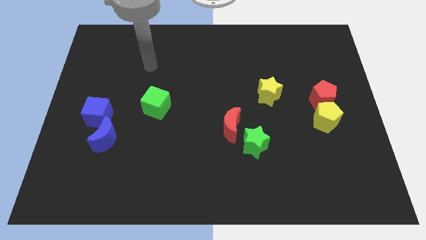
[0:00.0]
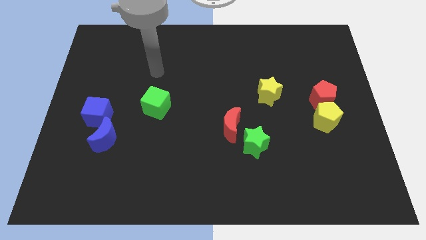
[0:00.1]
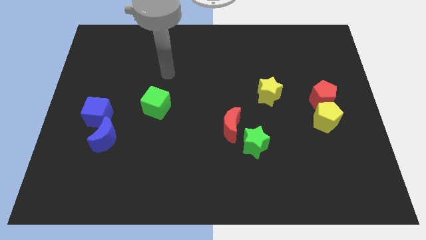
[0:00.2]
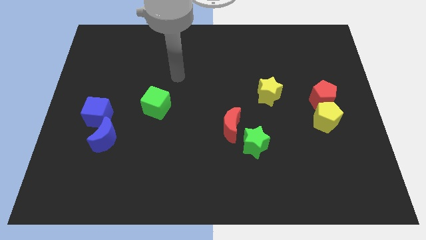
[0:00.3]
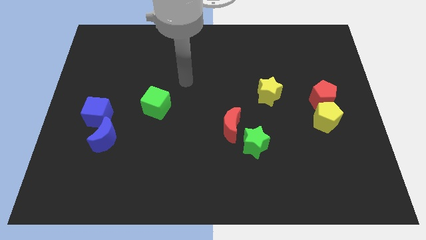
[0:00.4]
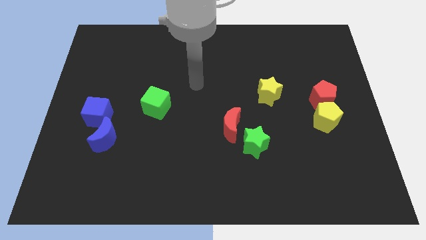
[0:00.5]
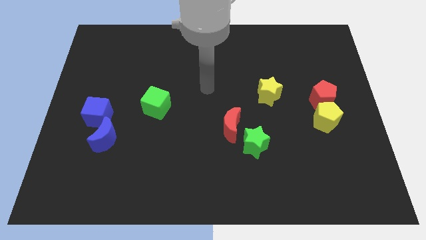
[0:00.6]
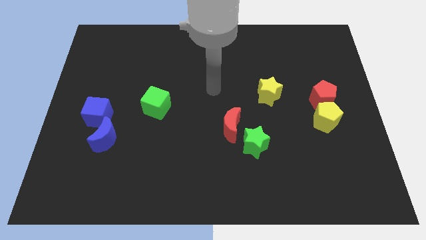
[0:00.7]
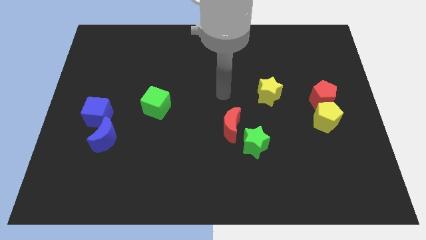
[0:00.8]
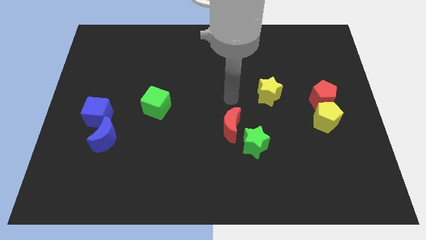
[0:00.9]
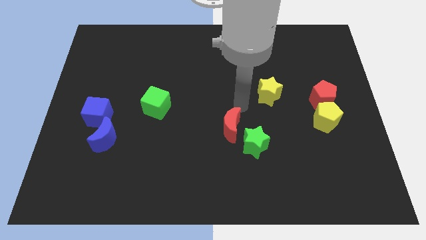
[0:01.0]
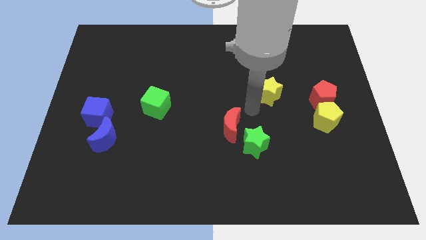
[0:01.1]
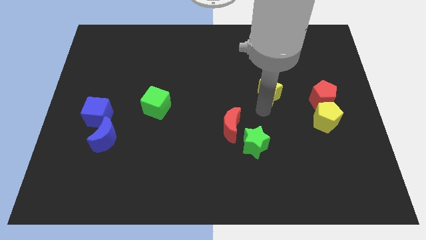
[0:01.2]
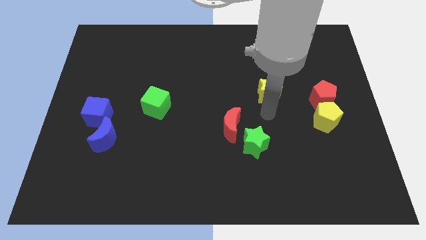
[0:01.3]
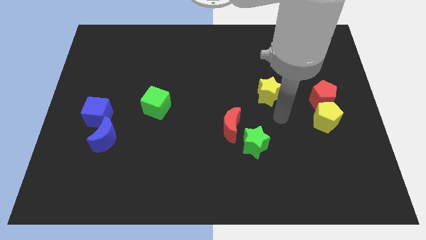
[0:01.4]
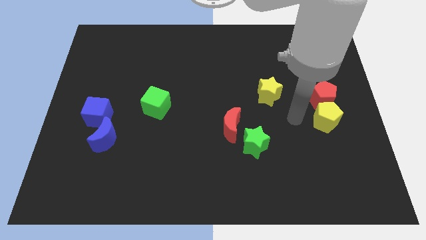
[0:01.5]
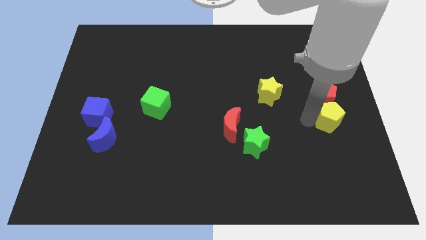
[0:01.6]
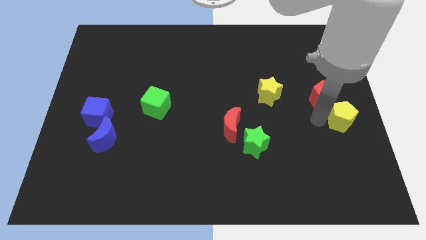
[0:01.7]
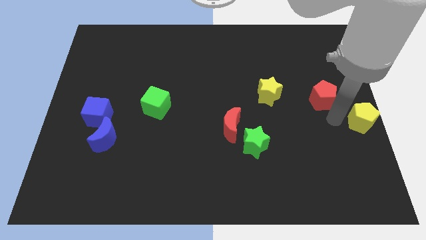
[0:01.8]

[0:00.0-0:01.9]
separate the red pentagon from the yellow pentagon

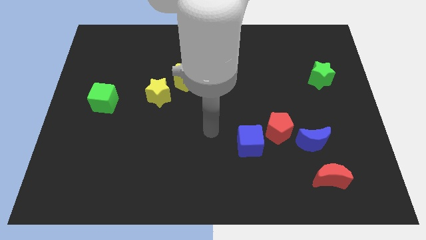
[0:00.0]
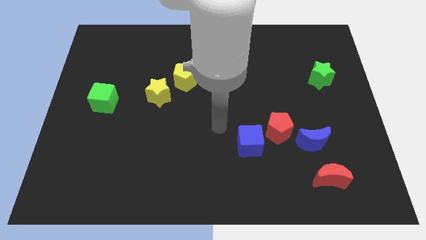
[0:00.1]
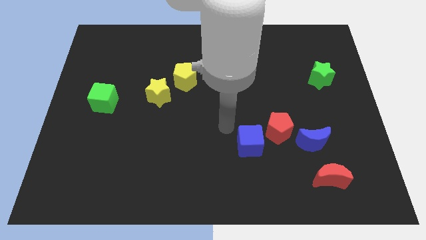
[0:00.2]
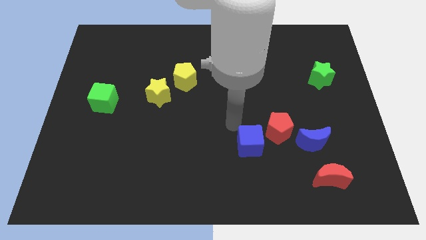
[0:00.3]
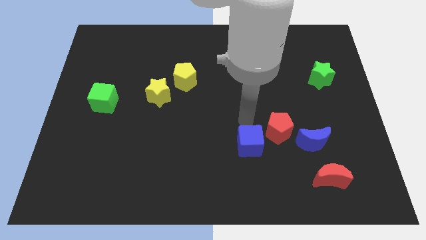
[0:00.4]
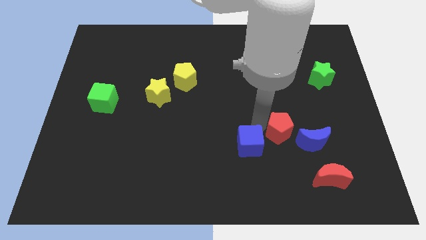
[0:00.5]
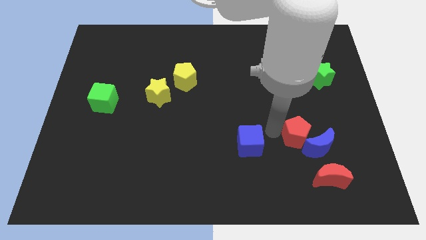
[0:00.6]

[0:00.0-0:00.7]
separate the blue cube from the red pentagon

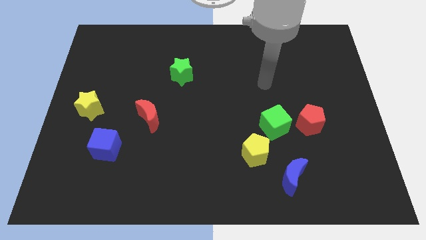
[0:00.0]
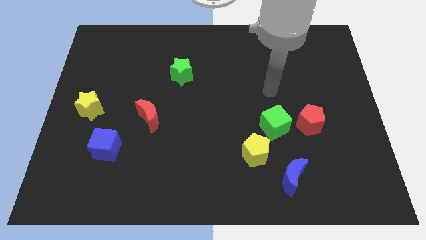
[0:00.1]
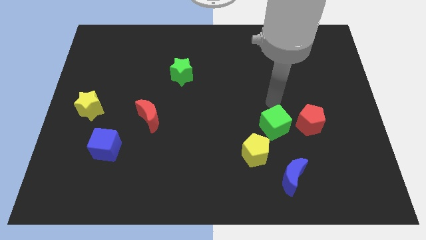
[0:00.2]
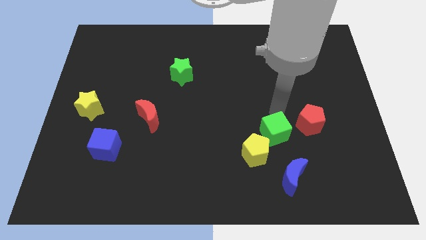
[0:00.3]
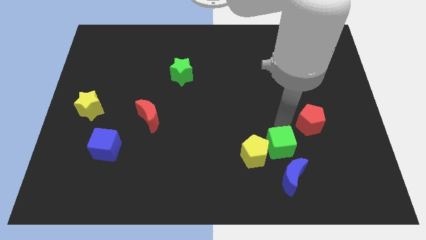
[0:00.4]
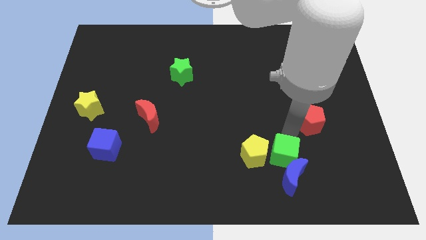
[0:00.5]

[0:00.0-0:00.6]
pull the red pentagon apart from the green cube

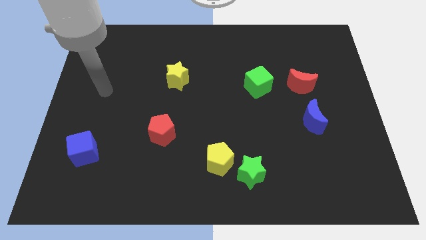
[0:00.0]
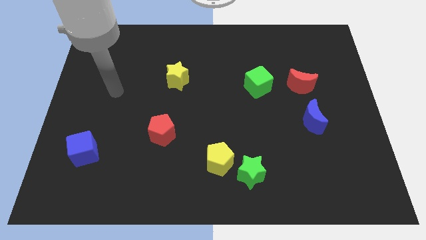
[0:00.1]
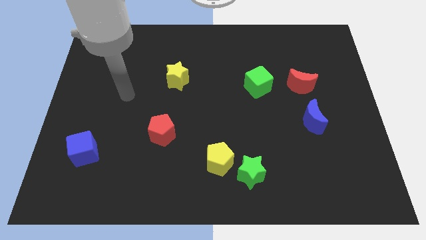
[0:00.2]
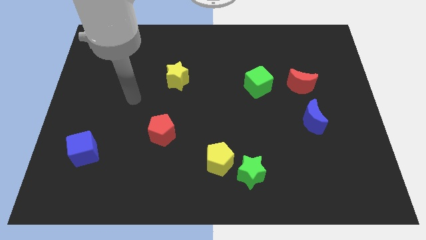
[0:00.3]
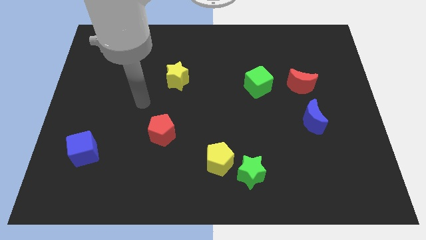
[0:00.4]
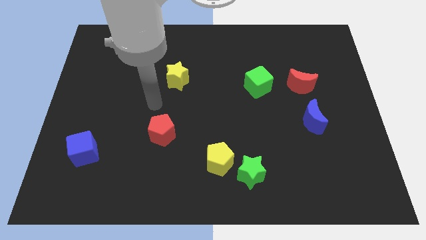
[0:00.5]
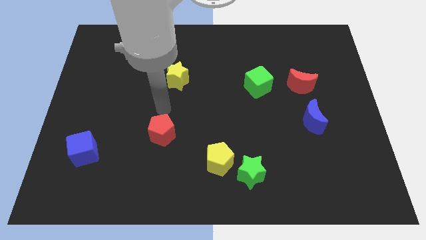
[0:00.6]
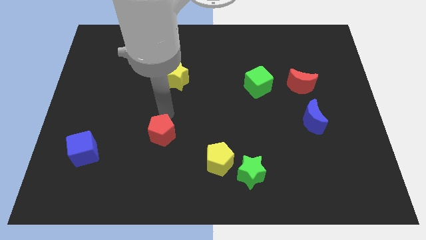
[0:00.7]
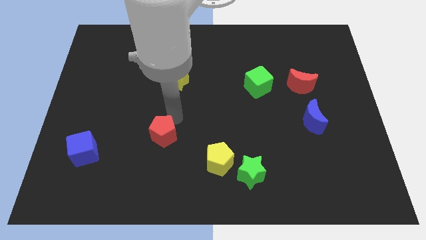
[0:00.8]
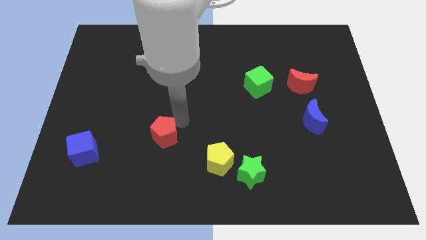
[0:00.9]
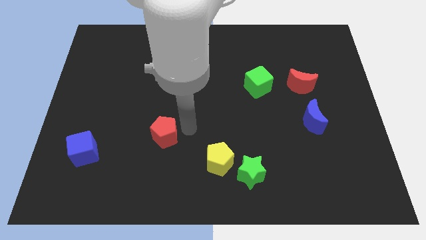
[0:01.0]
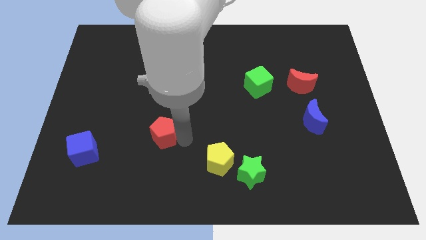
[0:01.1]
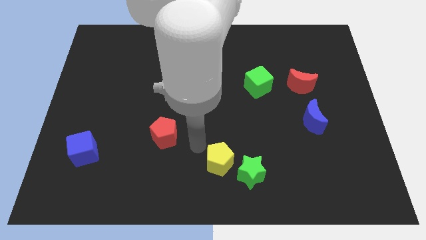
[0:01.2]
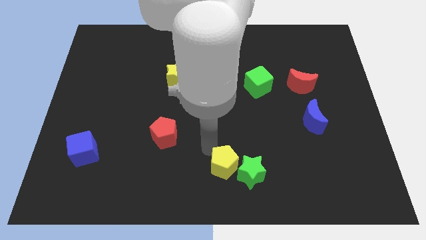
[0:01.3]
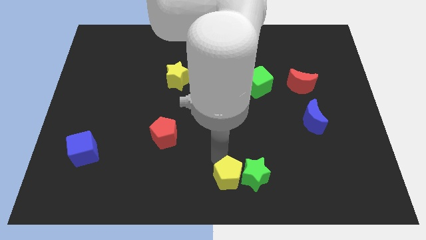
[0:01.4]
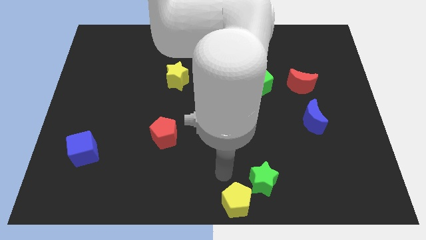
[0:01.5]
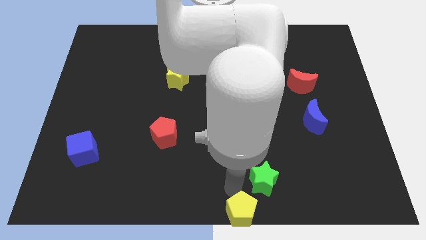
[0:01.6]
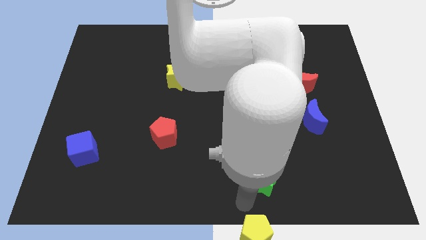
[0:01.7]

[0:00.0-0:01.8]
move the green star away from the yellow pentagon

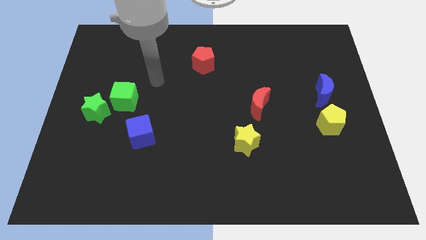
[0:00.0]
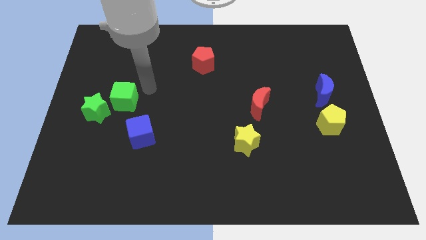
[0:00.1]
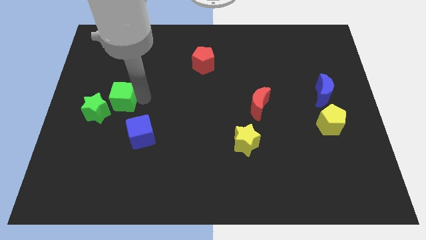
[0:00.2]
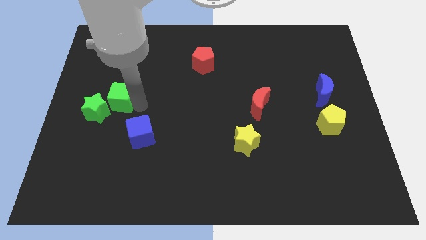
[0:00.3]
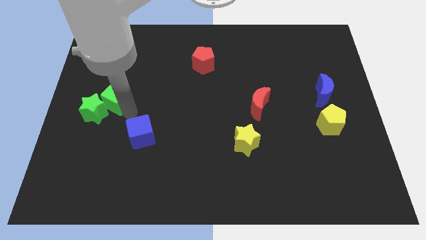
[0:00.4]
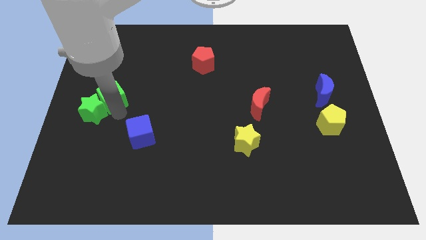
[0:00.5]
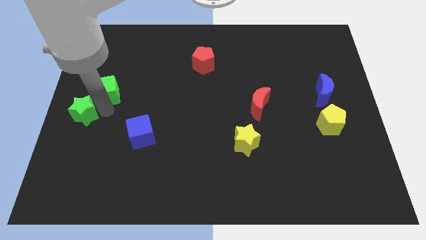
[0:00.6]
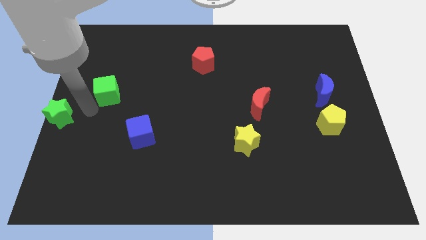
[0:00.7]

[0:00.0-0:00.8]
pull the green cube apart from the green star

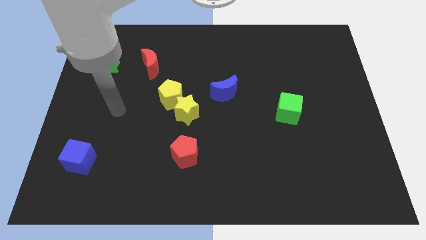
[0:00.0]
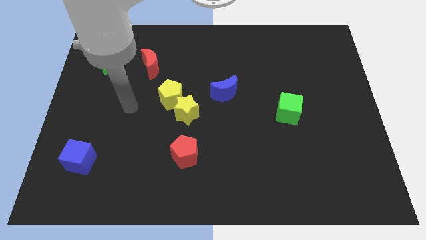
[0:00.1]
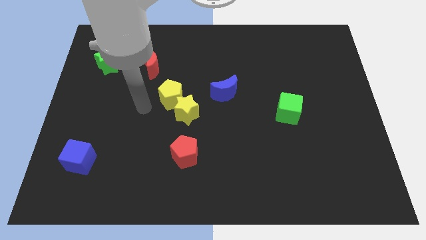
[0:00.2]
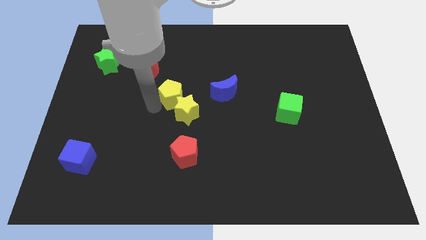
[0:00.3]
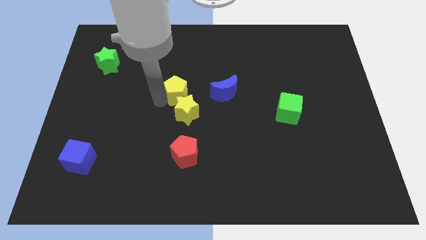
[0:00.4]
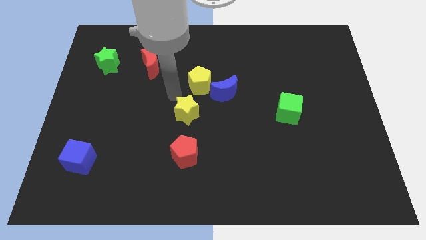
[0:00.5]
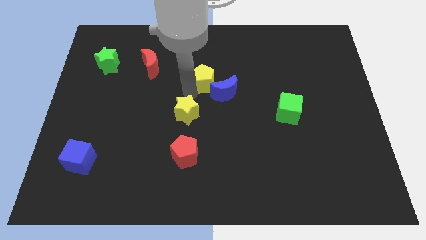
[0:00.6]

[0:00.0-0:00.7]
pull the yellow star apart from the yellow pentagon

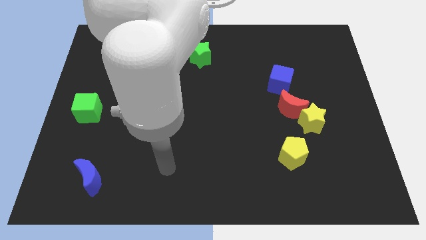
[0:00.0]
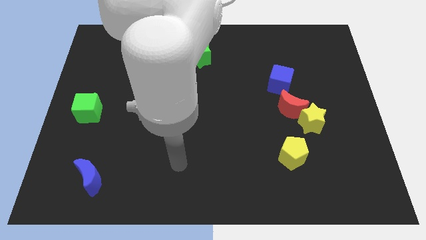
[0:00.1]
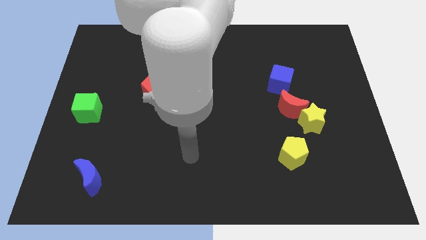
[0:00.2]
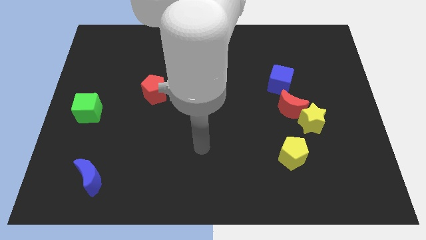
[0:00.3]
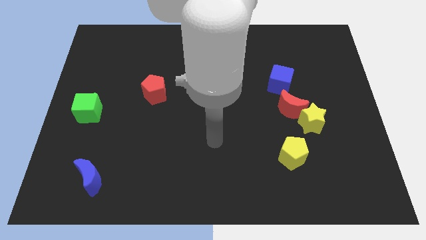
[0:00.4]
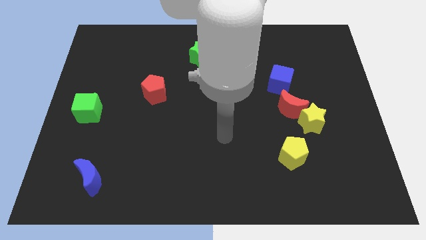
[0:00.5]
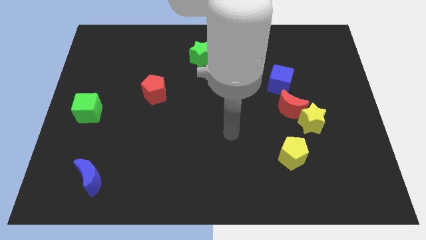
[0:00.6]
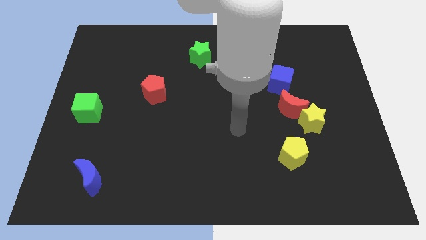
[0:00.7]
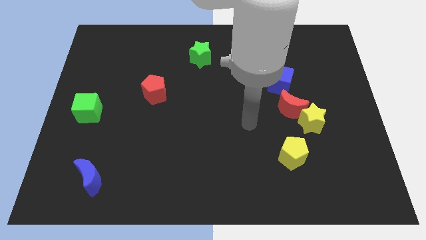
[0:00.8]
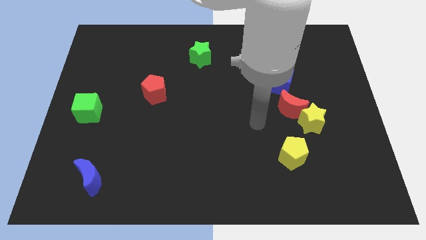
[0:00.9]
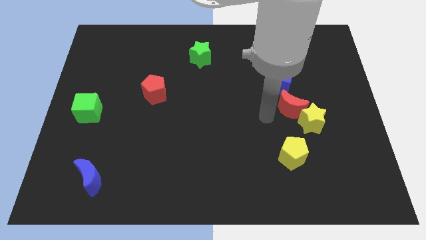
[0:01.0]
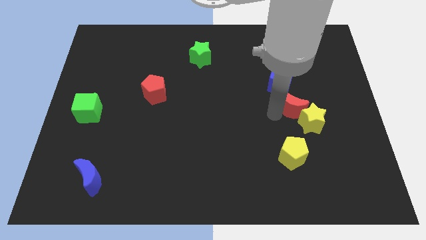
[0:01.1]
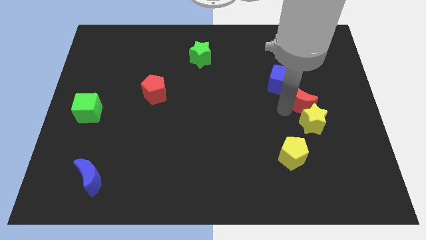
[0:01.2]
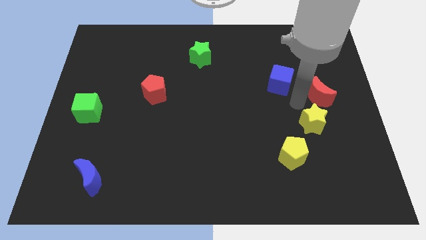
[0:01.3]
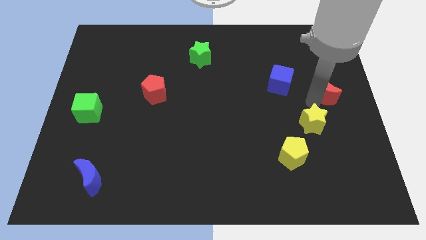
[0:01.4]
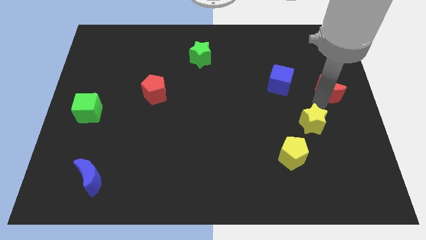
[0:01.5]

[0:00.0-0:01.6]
separate the yellow star from the red moon

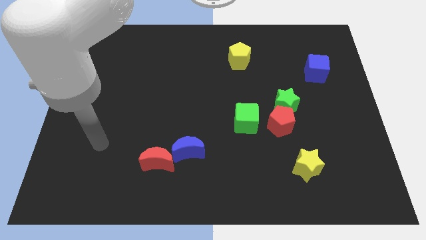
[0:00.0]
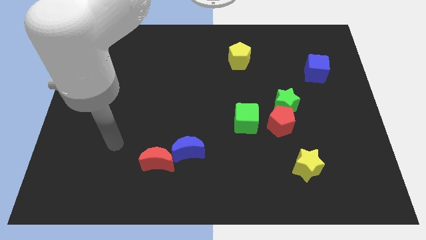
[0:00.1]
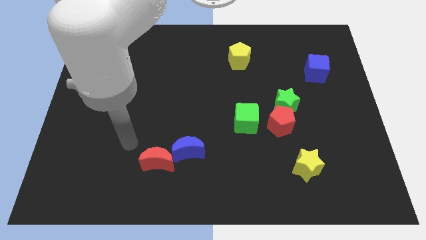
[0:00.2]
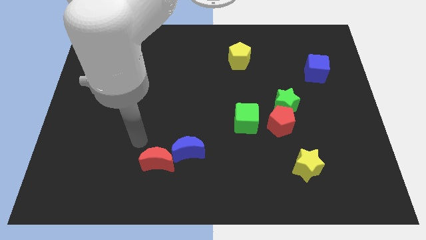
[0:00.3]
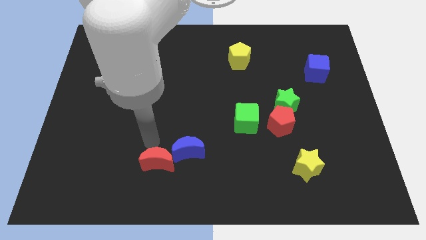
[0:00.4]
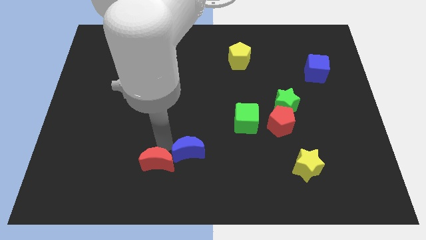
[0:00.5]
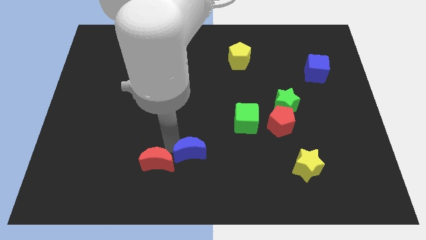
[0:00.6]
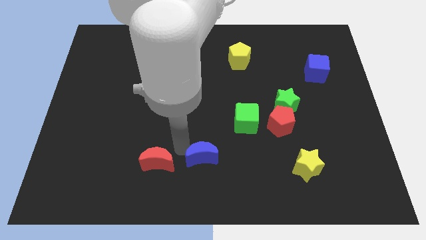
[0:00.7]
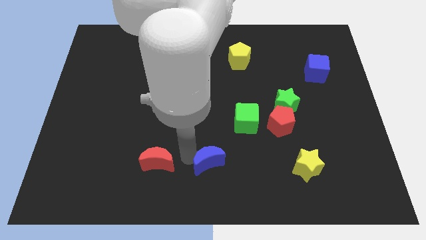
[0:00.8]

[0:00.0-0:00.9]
move the red moon away from the blue moon

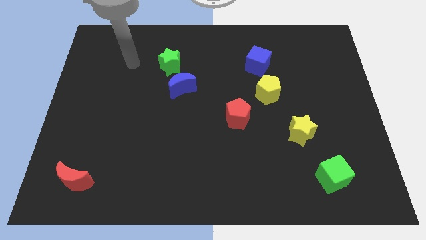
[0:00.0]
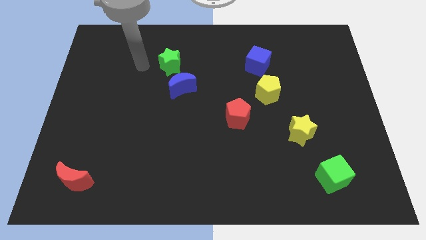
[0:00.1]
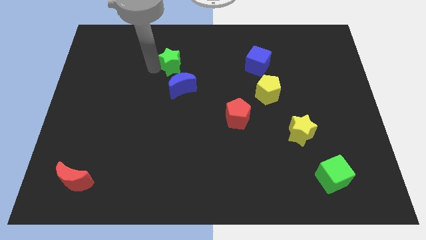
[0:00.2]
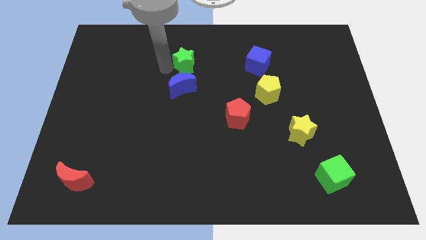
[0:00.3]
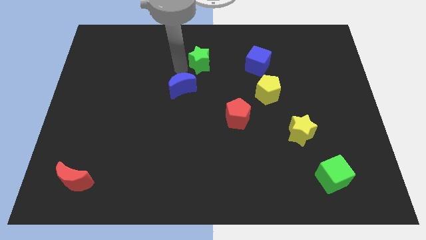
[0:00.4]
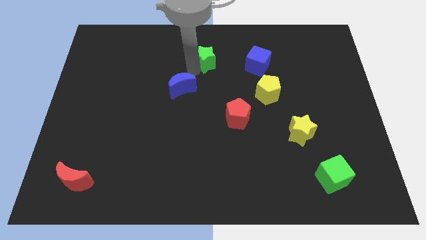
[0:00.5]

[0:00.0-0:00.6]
move the blue moon away from the green star
